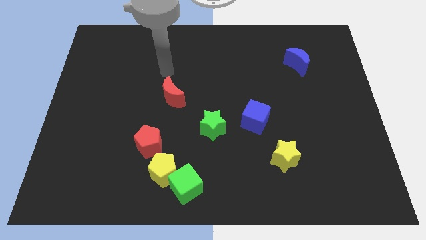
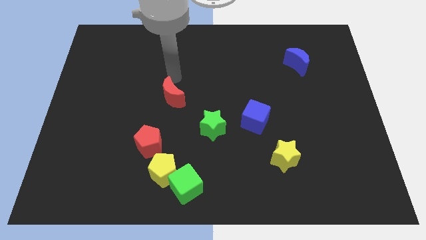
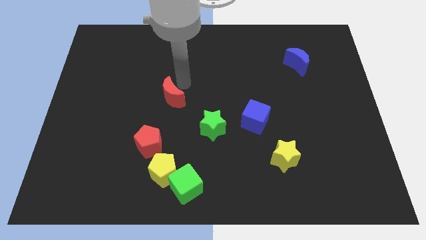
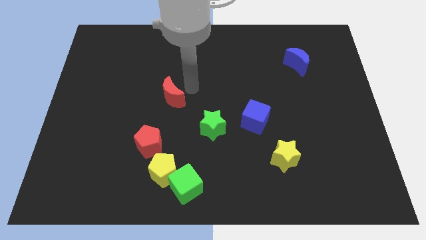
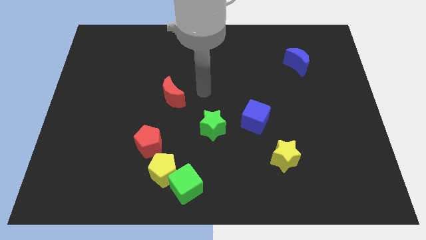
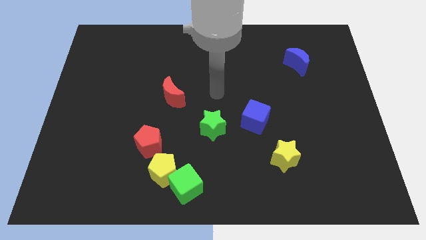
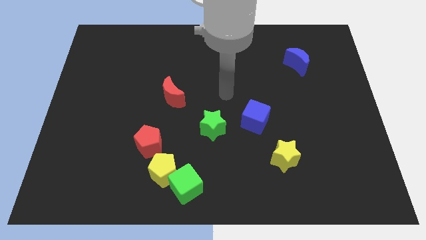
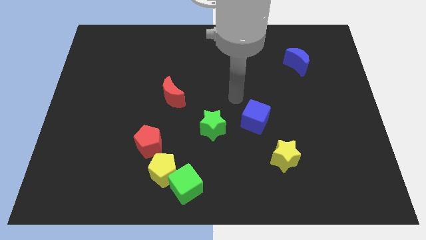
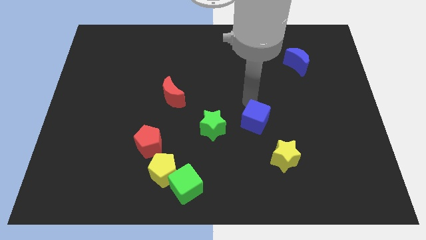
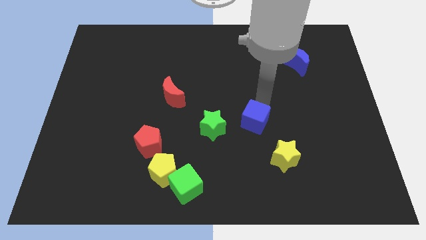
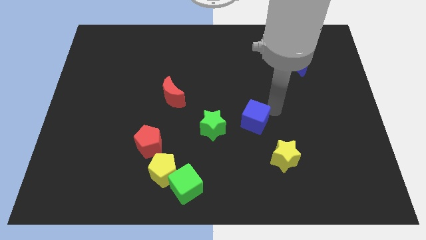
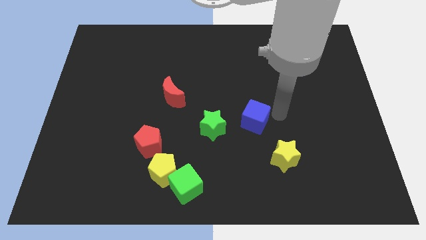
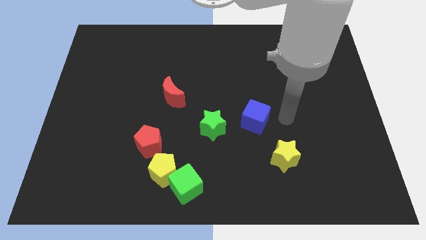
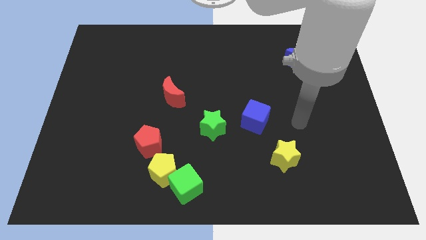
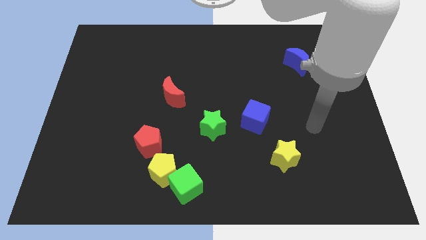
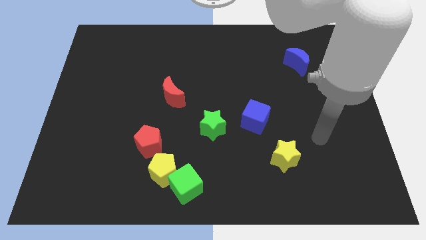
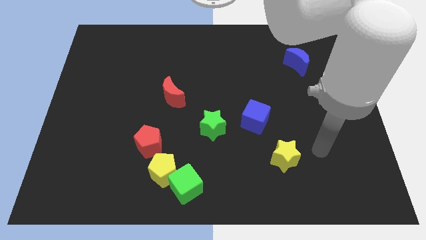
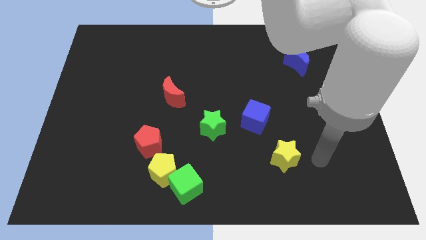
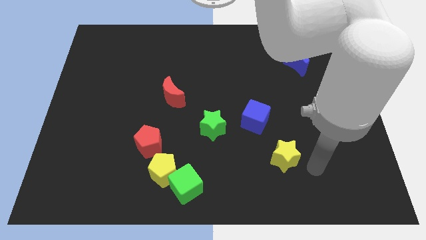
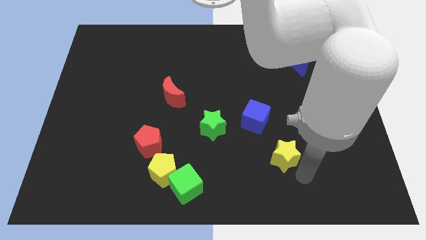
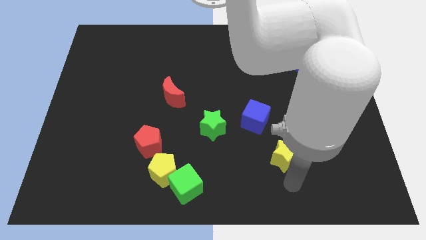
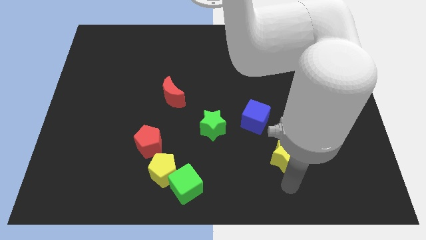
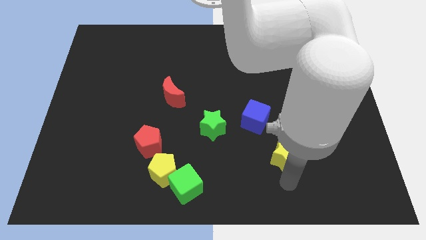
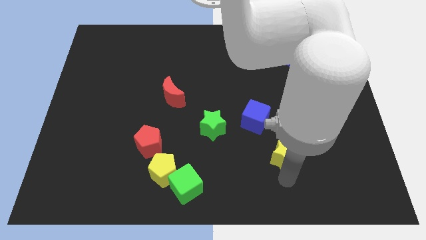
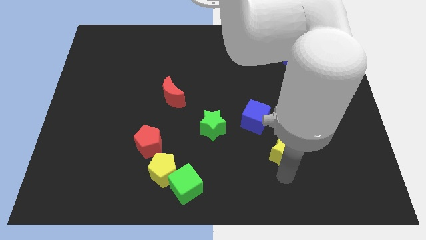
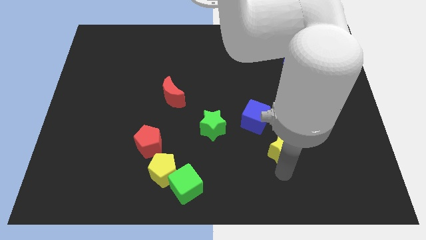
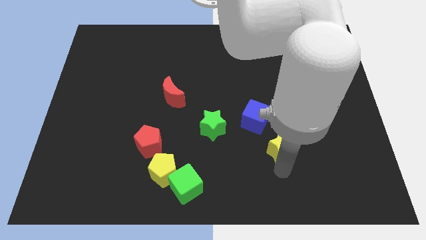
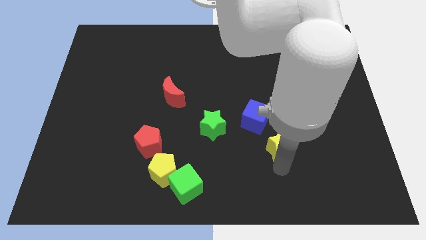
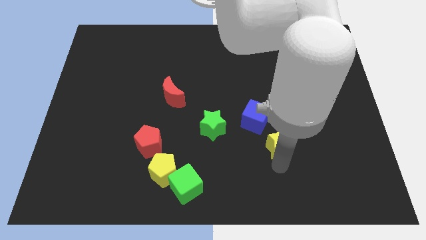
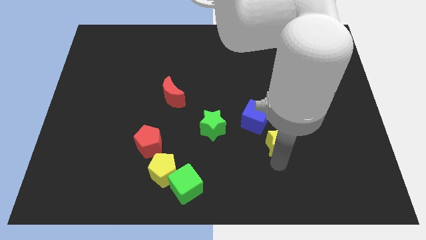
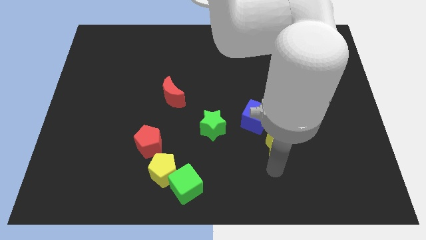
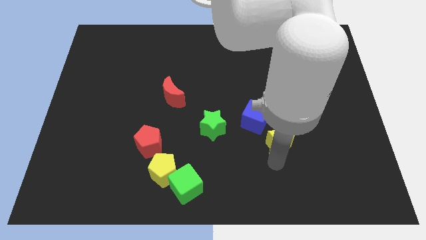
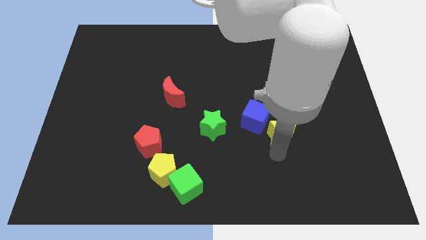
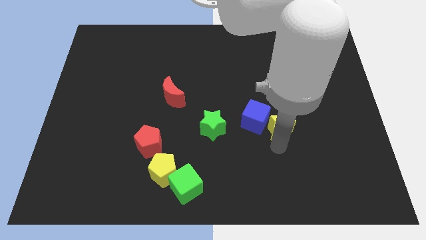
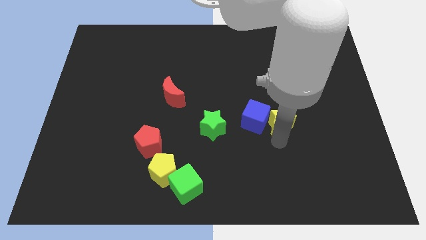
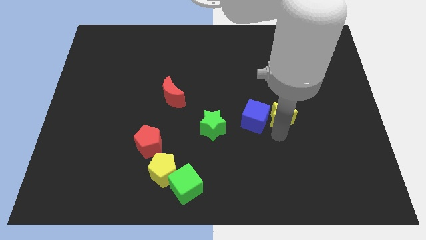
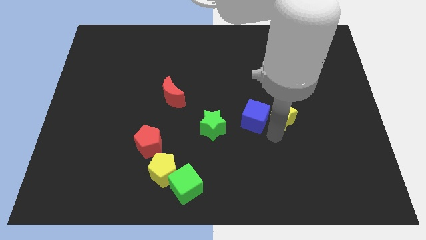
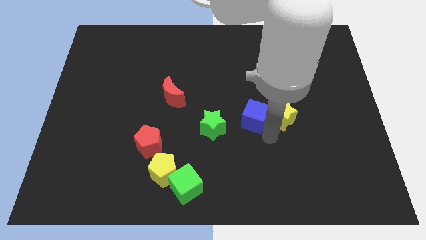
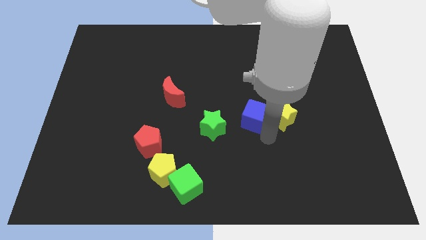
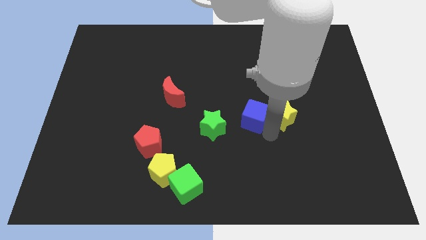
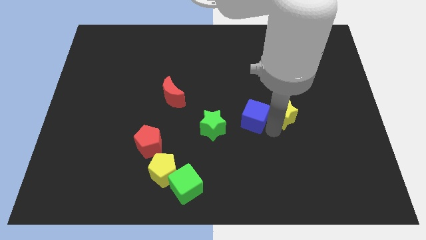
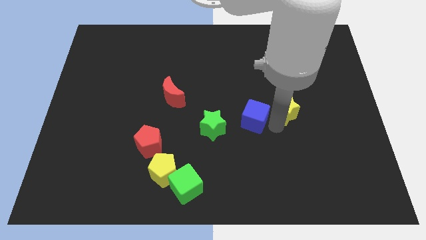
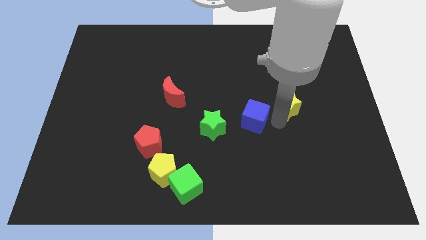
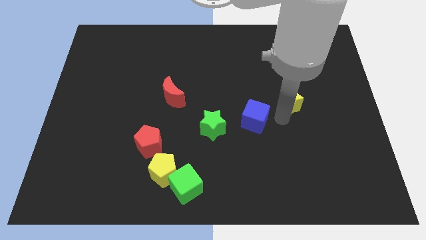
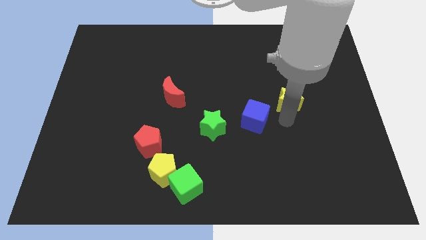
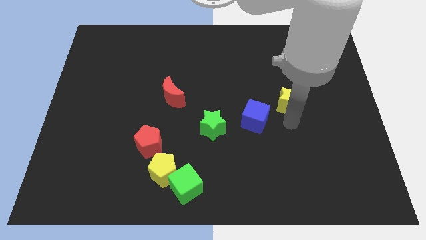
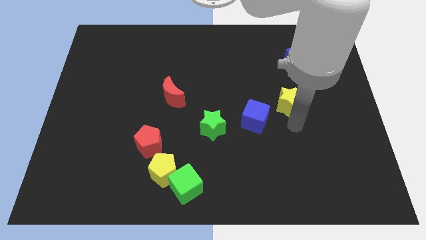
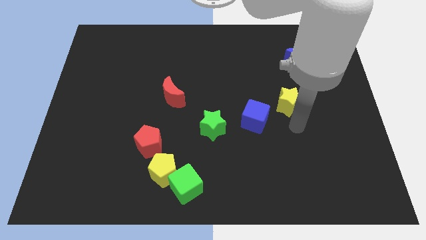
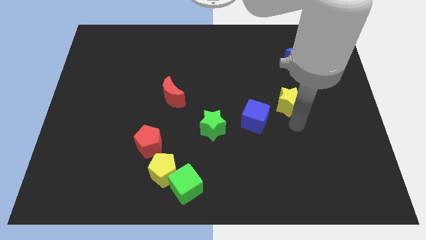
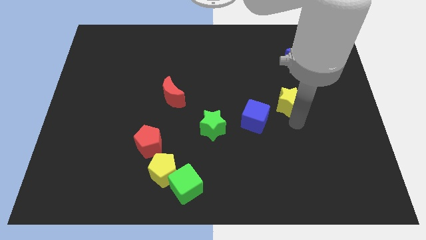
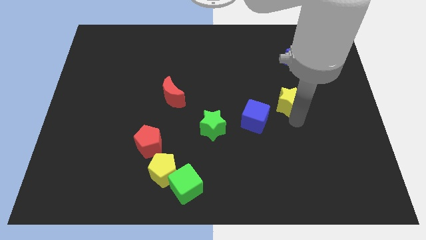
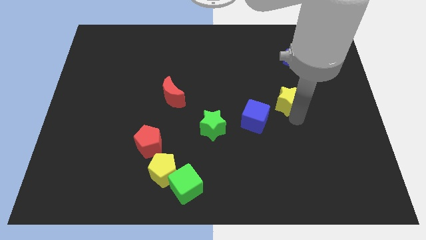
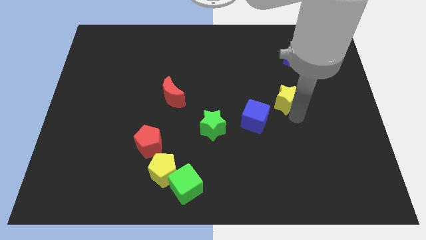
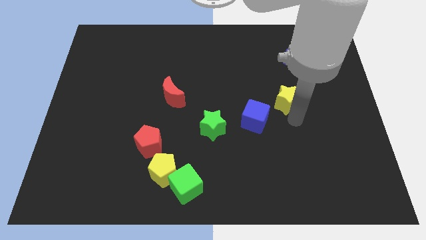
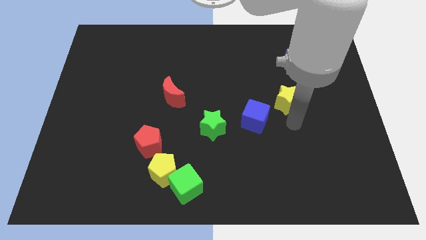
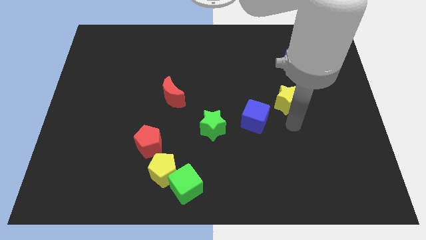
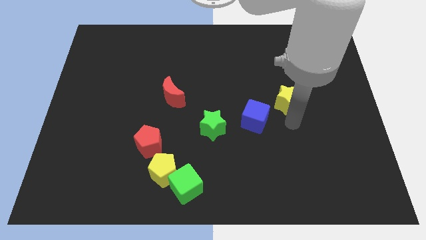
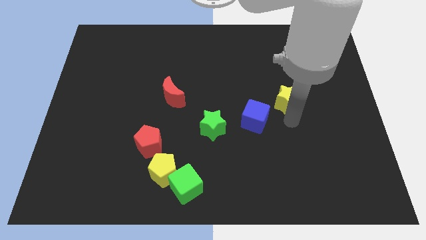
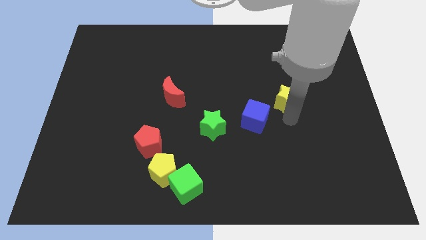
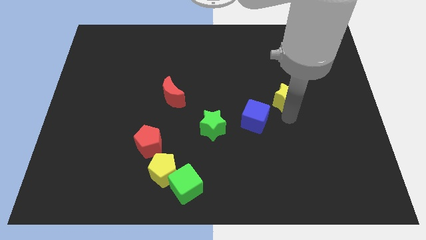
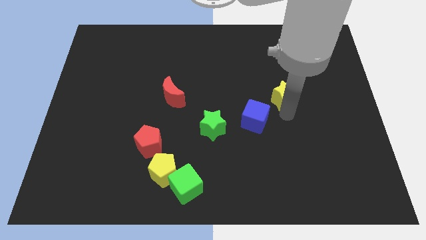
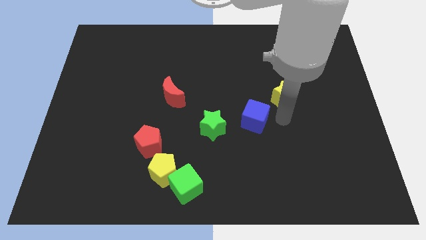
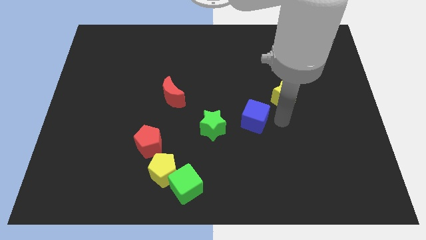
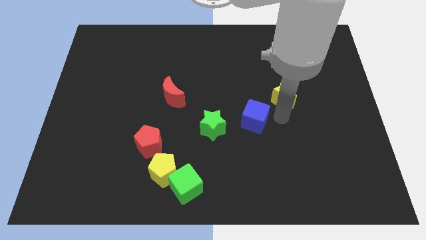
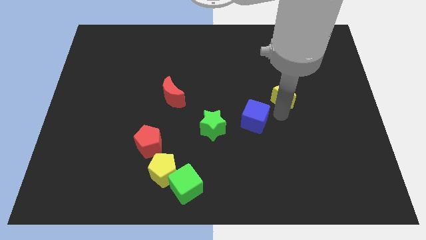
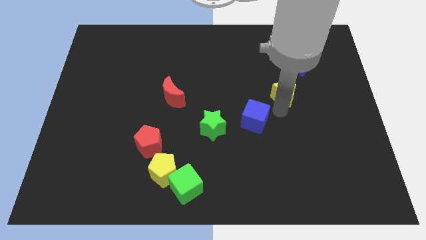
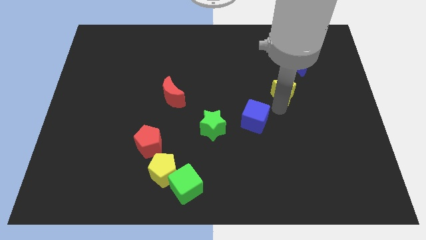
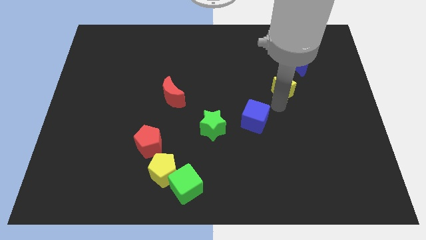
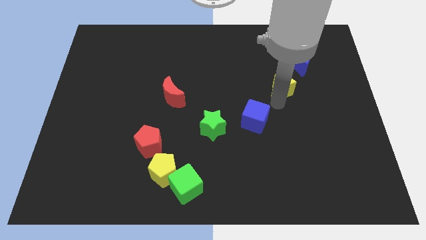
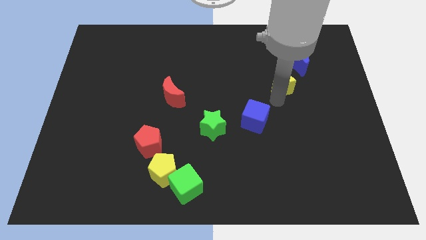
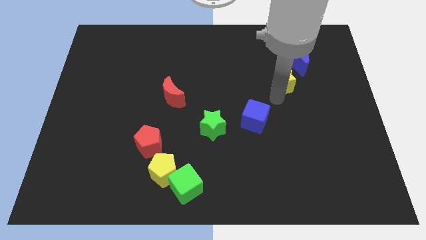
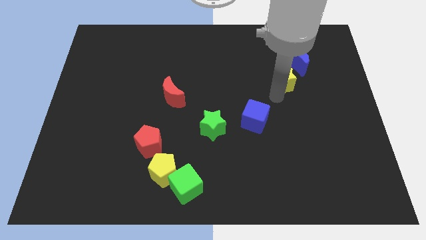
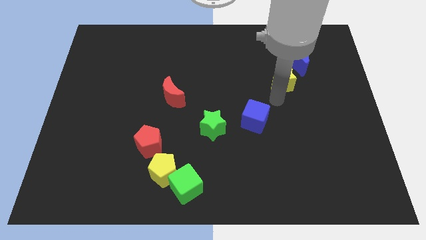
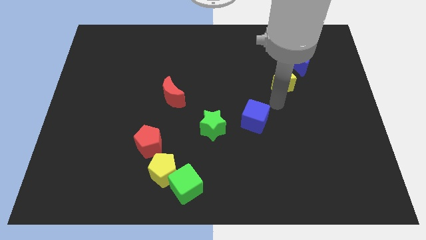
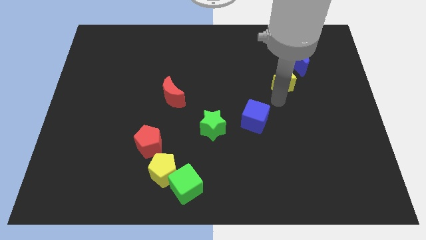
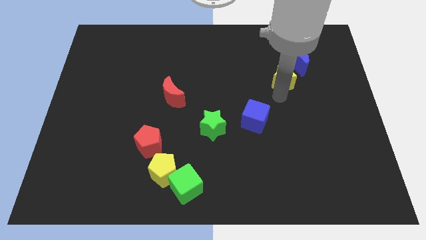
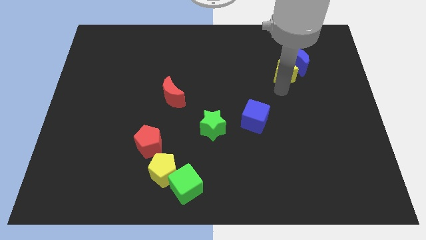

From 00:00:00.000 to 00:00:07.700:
move the yellow star close to the blue moon
